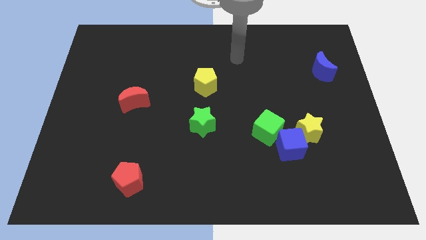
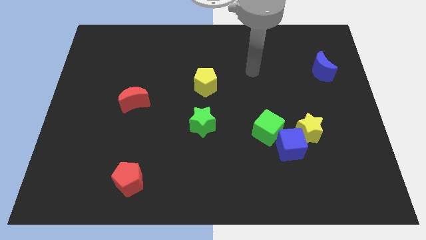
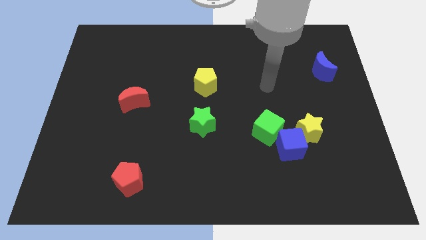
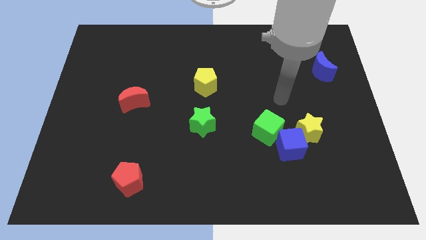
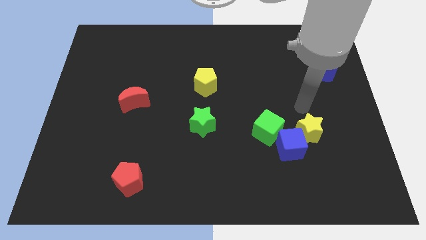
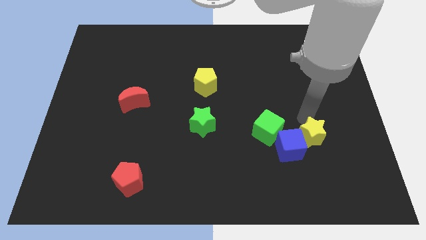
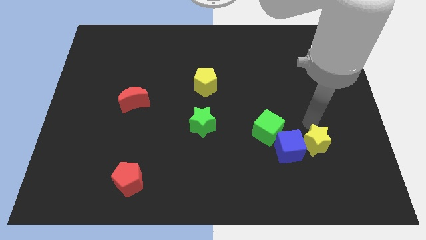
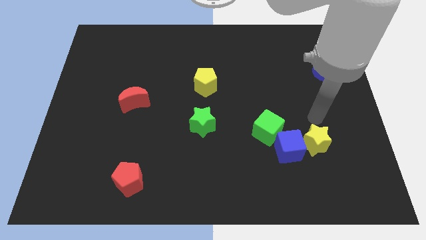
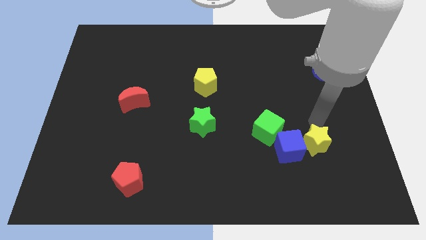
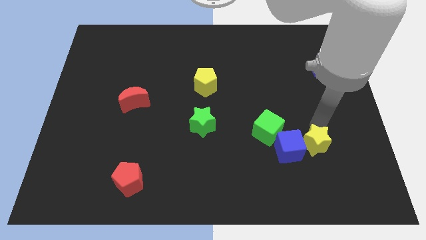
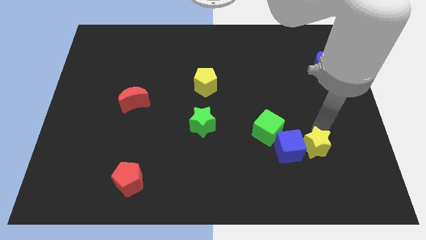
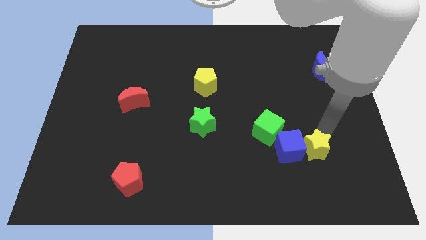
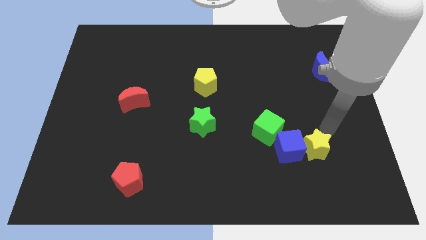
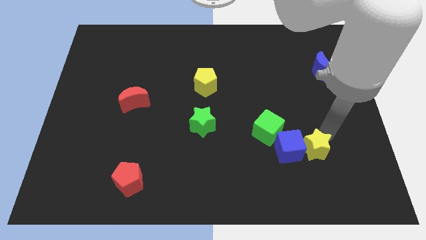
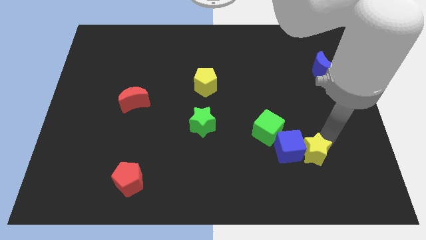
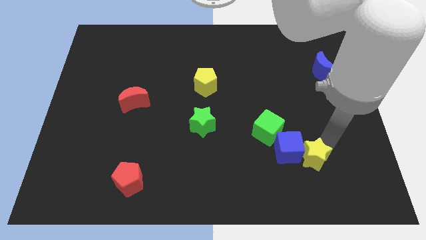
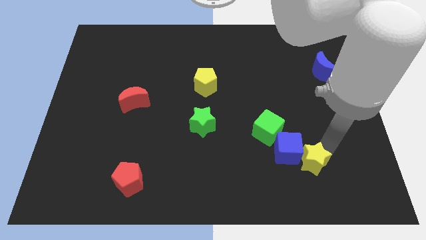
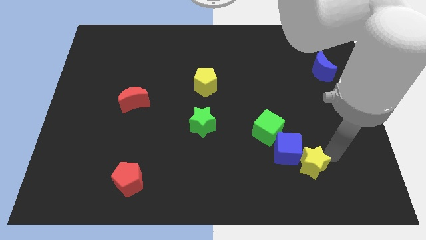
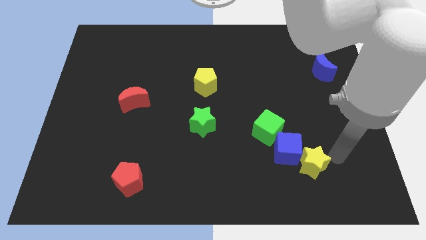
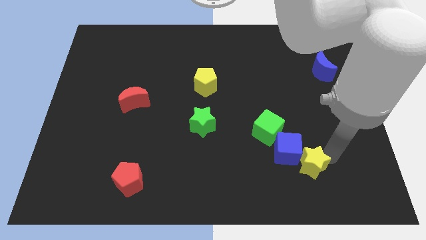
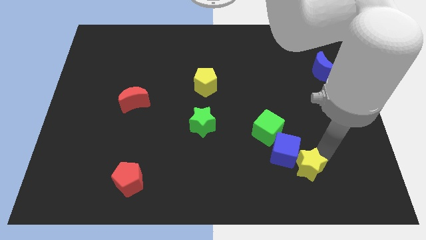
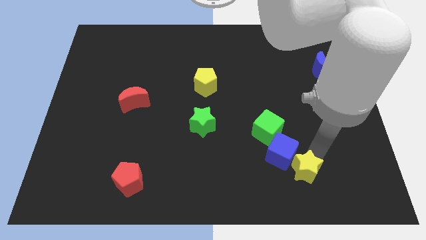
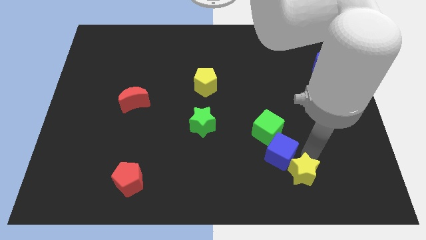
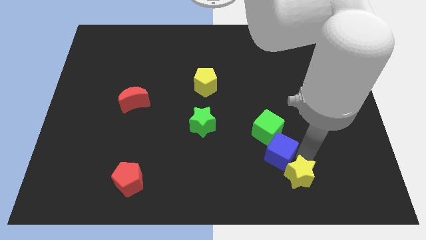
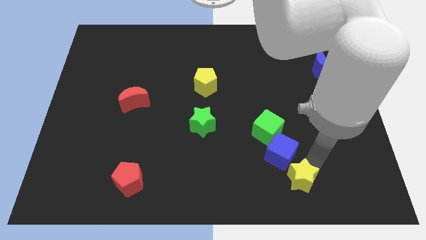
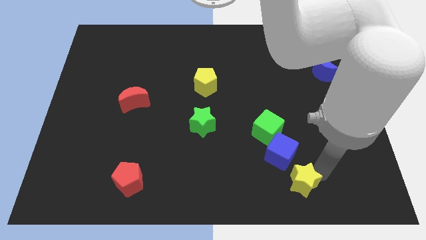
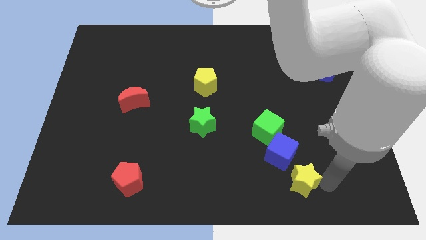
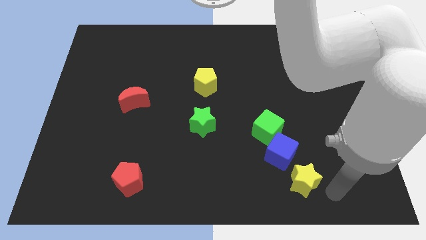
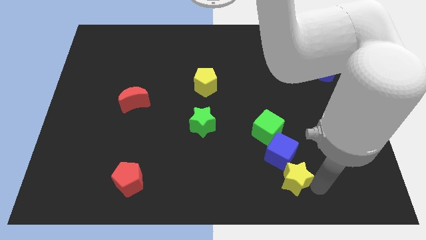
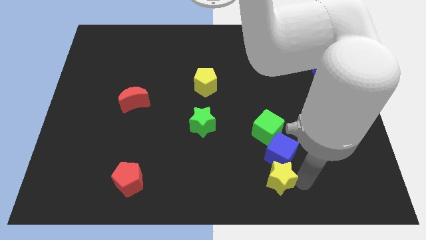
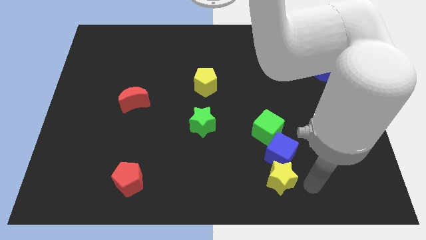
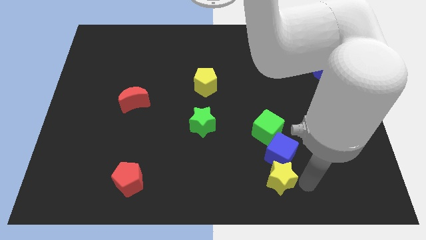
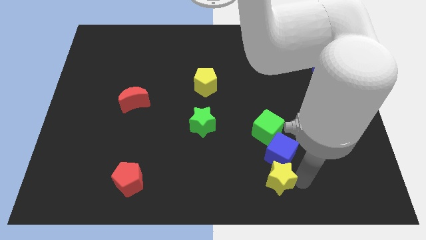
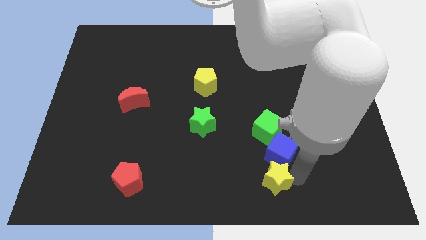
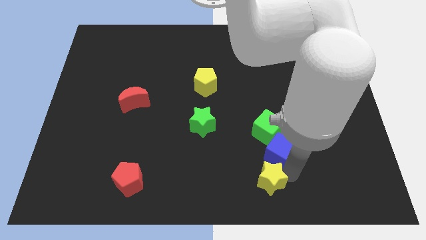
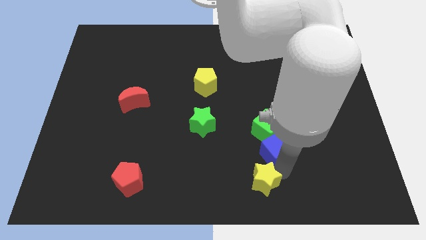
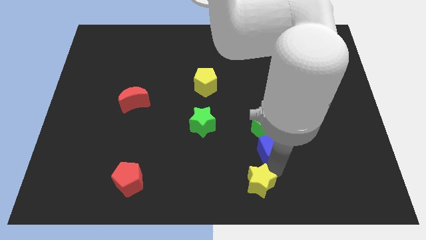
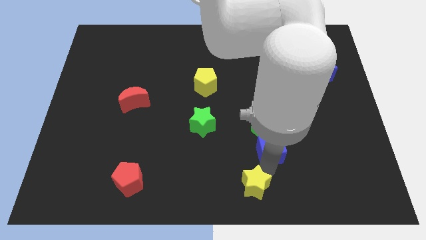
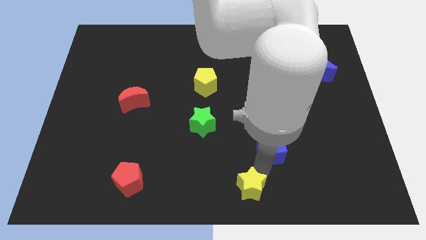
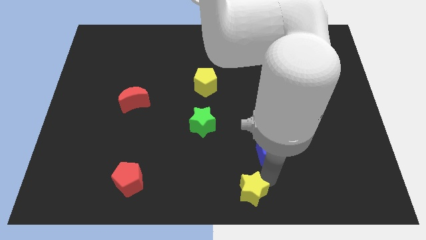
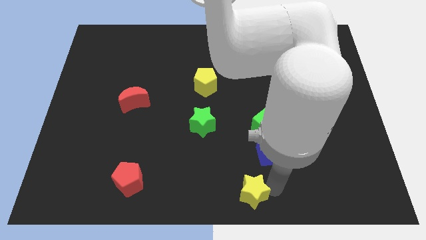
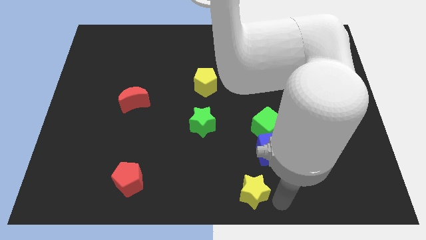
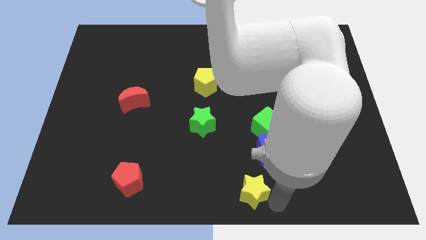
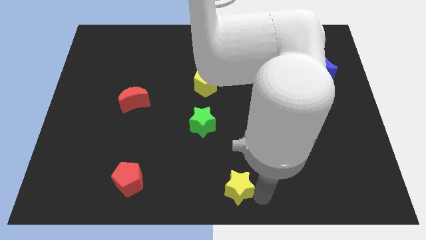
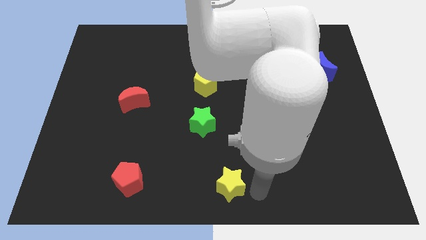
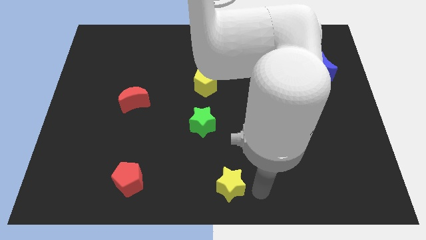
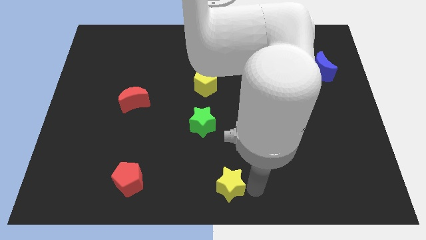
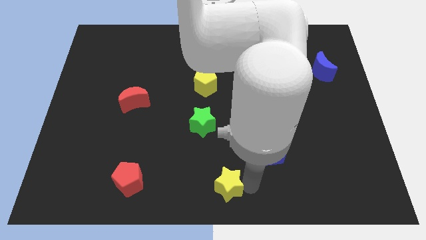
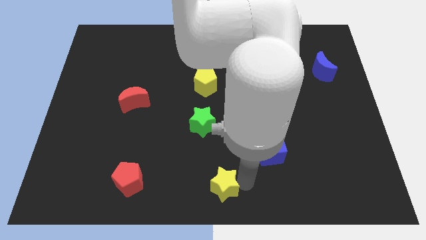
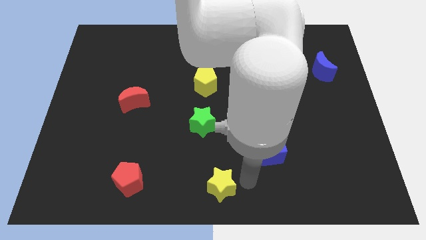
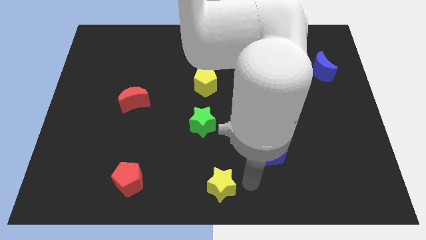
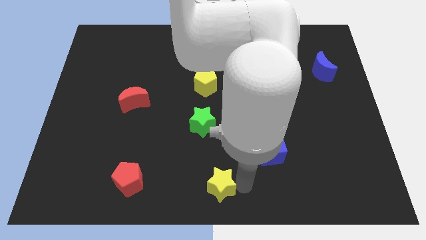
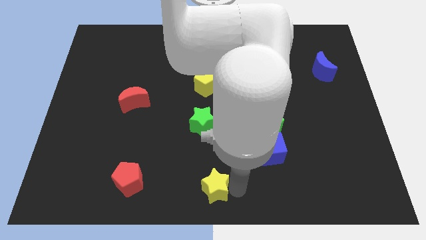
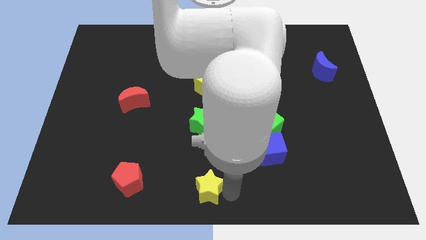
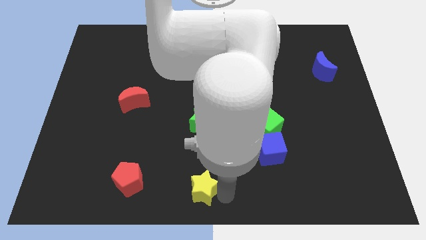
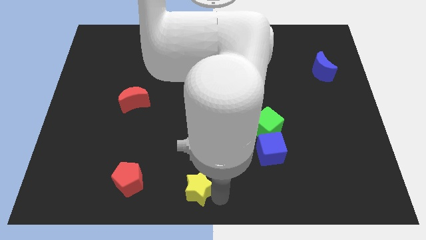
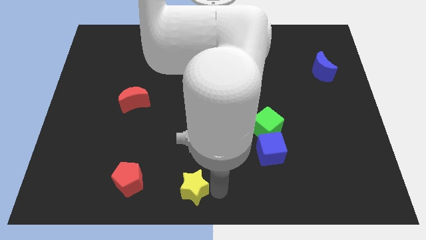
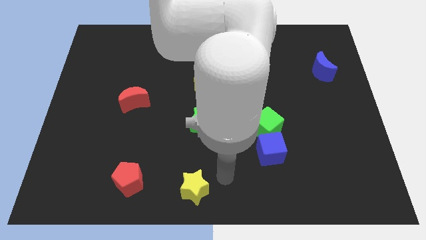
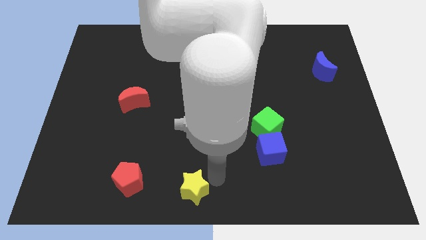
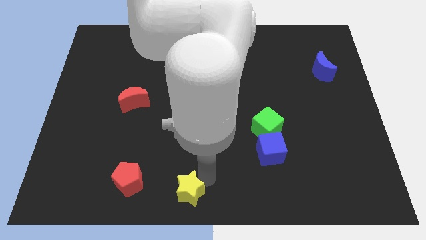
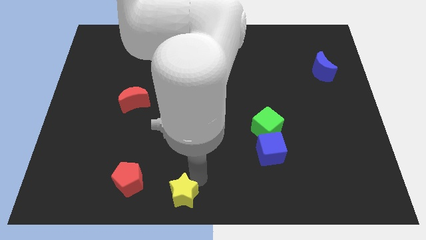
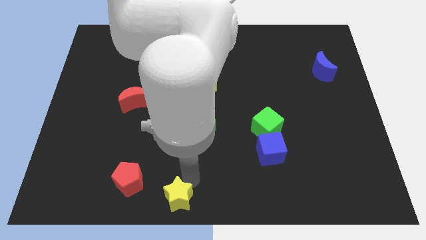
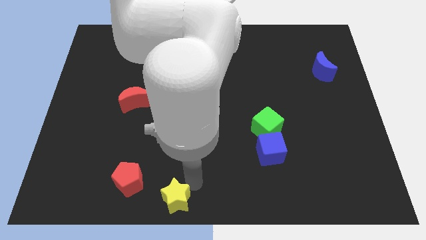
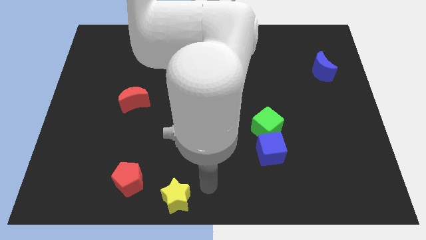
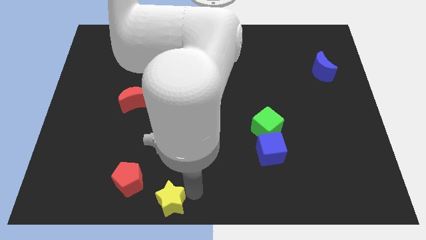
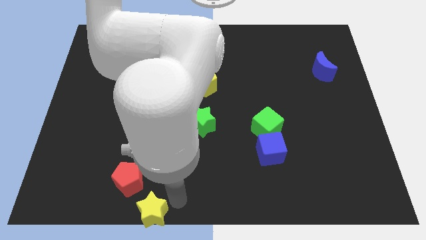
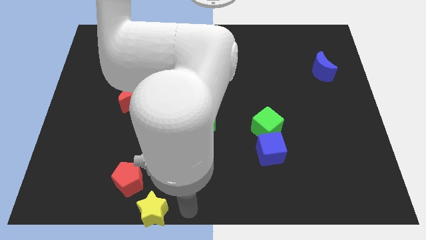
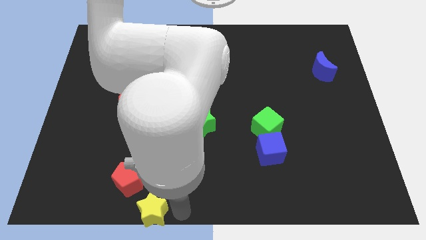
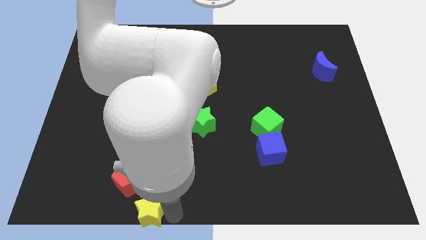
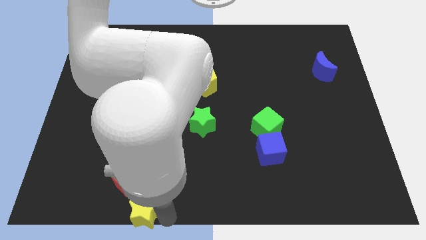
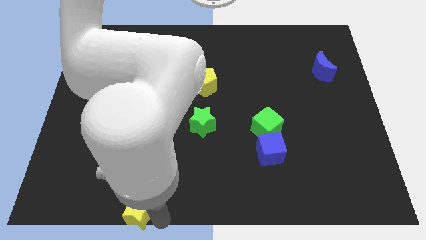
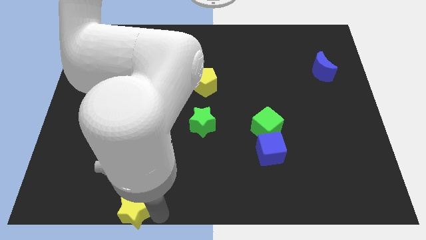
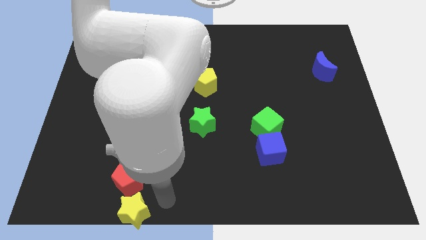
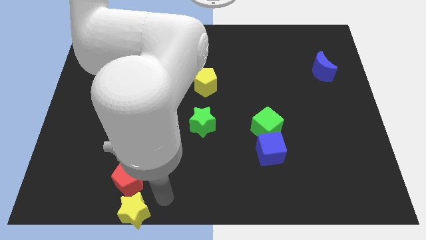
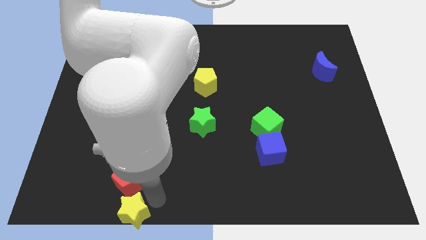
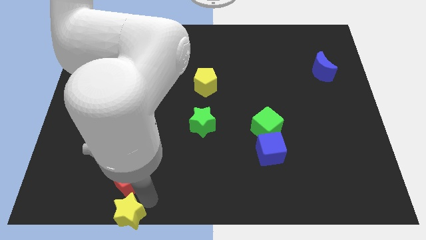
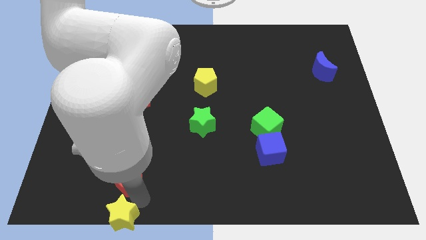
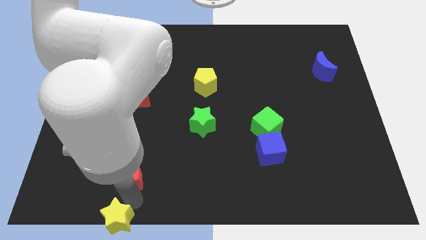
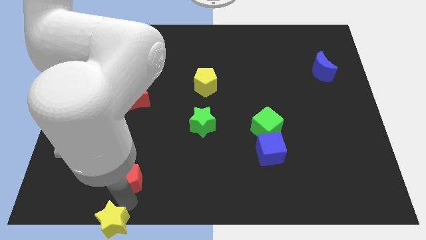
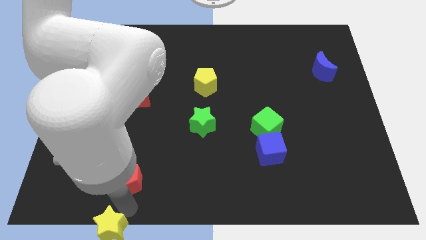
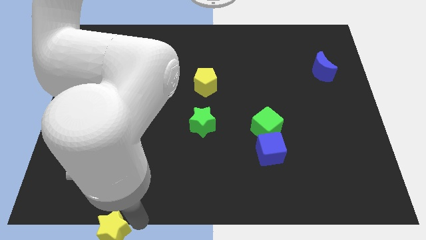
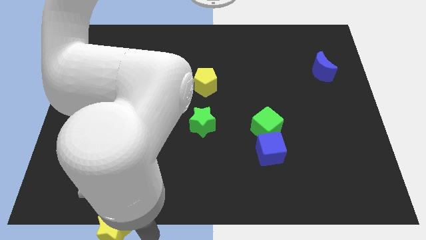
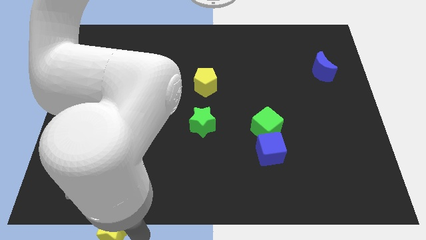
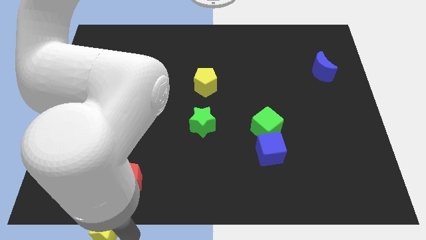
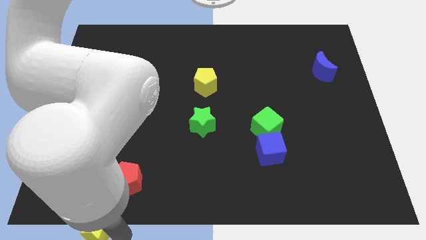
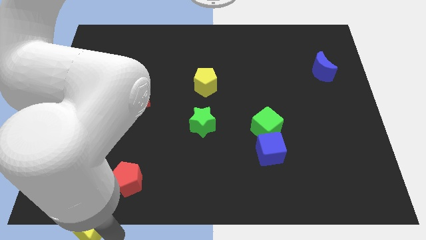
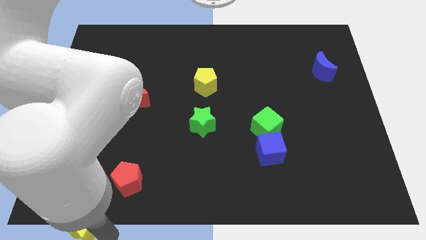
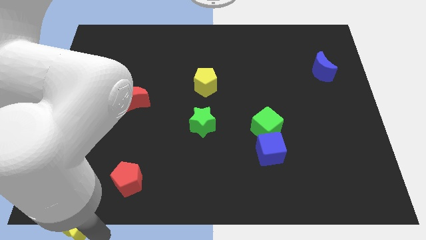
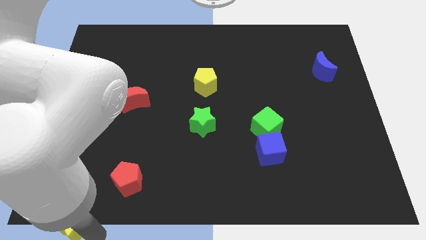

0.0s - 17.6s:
move the yellow star to the bottom left of the board
